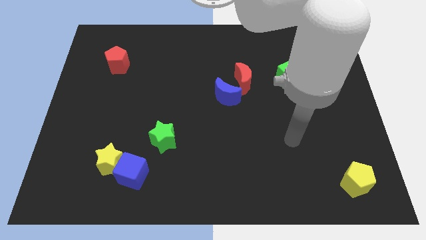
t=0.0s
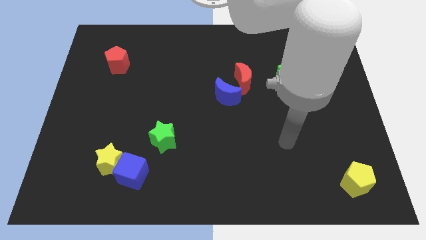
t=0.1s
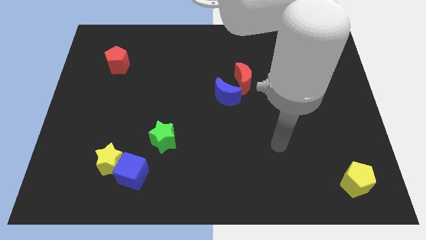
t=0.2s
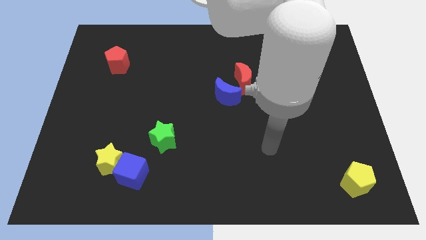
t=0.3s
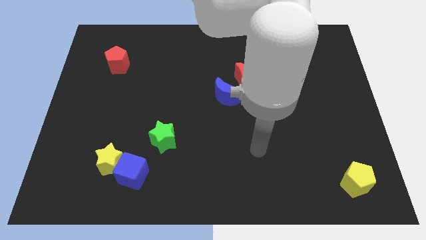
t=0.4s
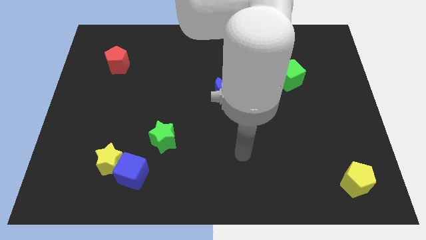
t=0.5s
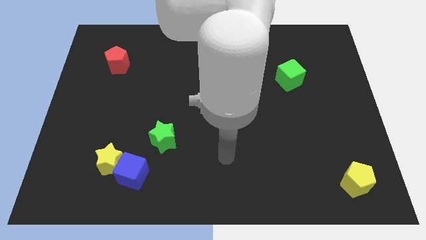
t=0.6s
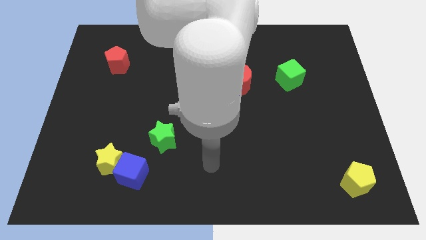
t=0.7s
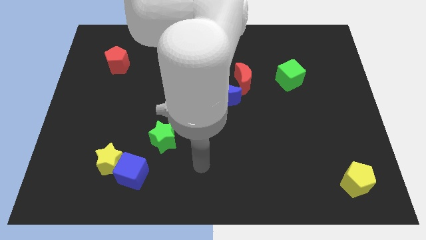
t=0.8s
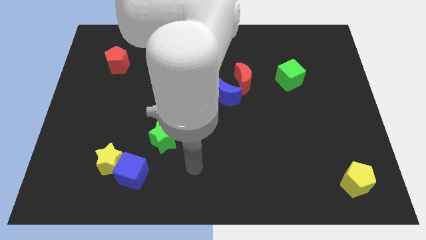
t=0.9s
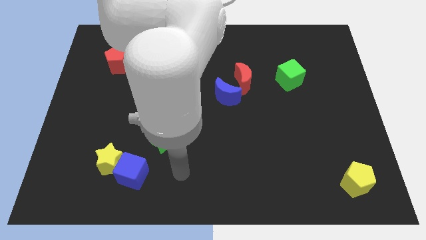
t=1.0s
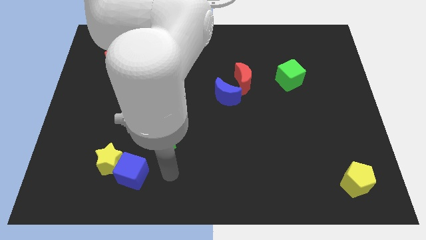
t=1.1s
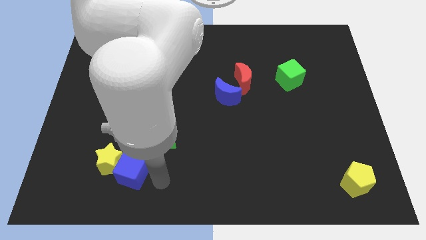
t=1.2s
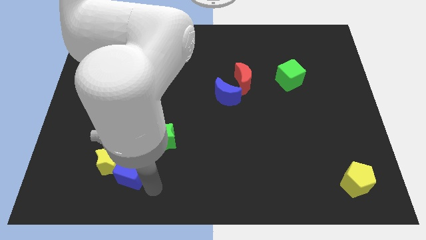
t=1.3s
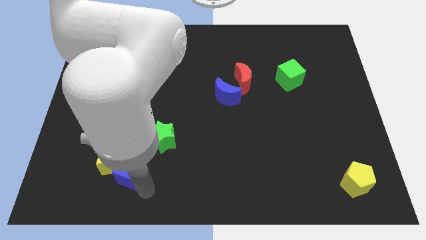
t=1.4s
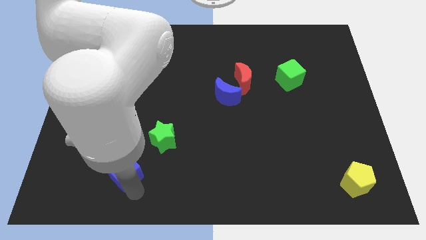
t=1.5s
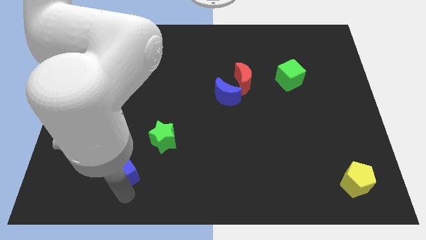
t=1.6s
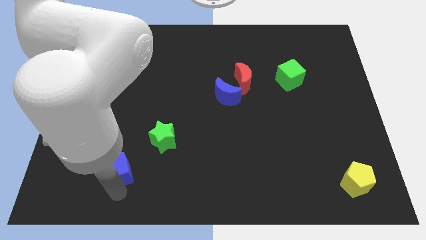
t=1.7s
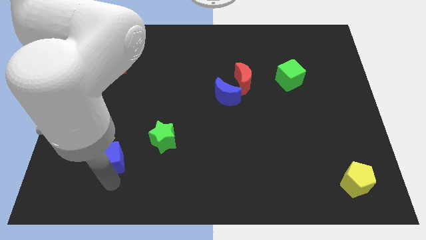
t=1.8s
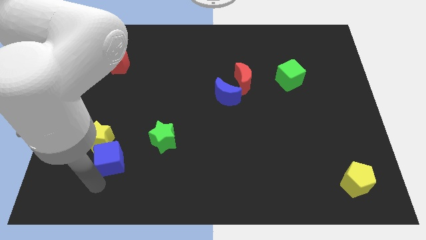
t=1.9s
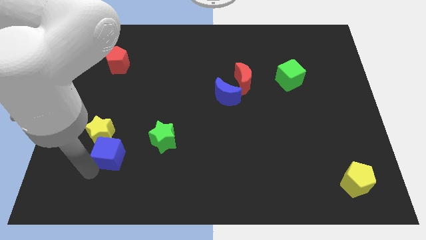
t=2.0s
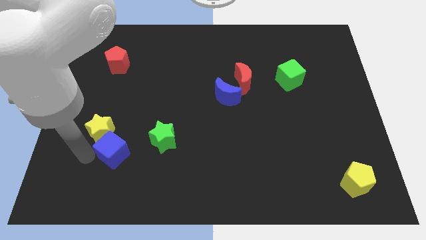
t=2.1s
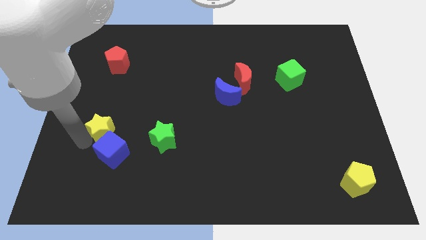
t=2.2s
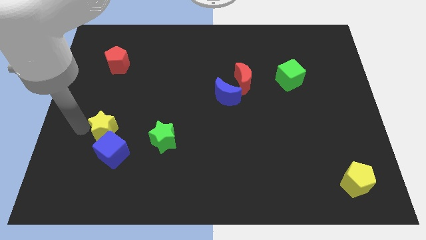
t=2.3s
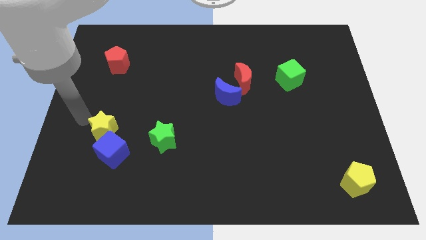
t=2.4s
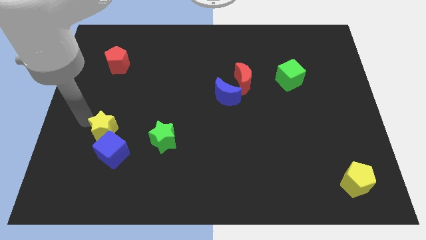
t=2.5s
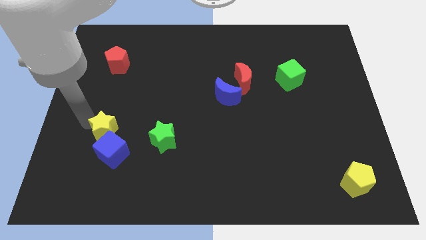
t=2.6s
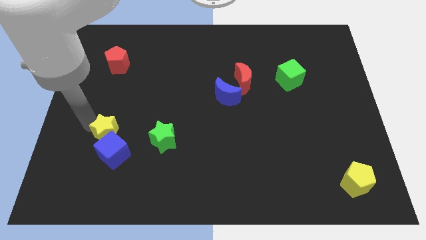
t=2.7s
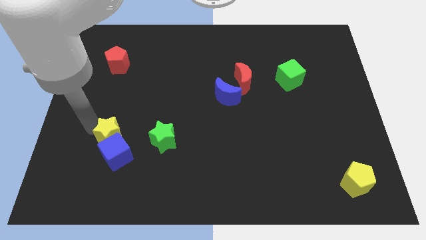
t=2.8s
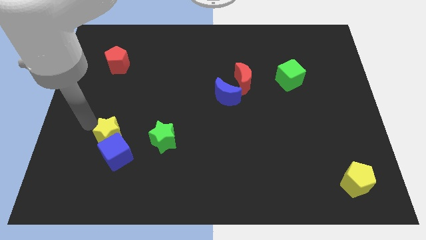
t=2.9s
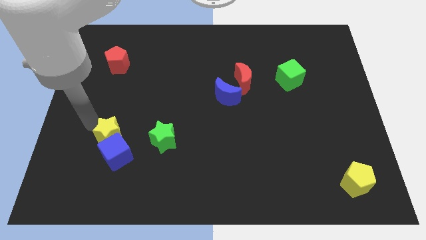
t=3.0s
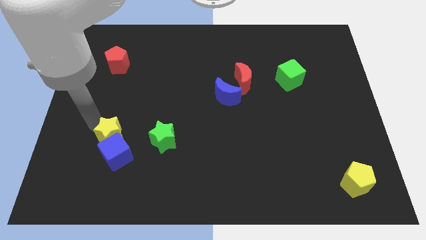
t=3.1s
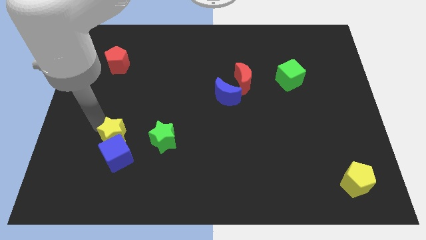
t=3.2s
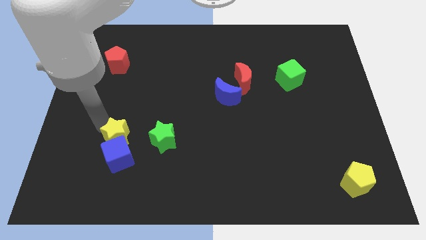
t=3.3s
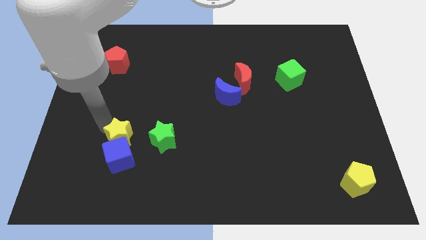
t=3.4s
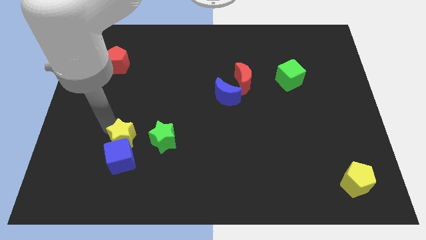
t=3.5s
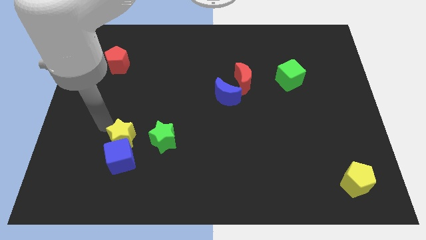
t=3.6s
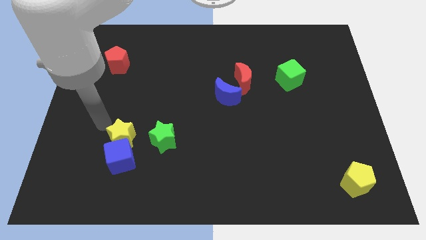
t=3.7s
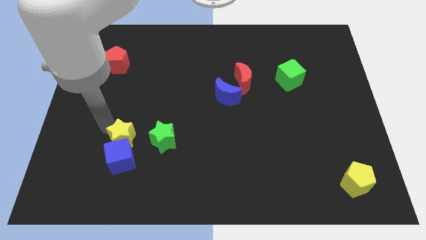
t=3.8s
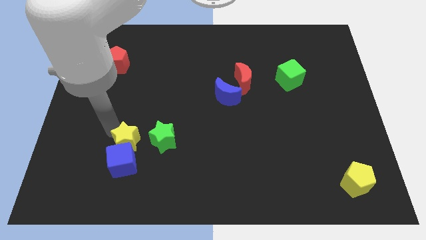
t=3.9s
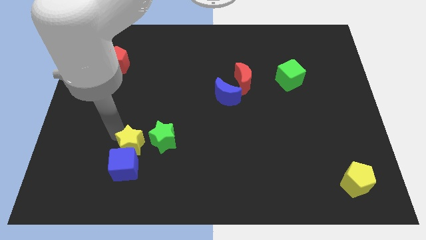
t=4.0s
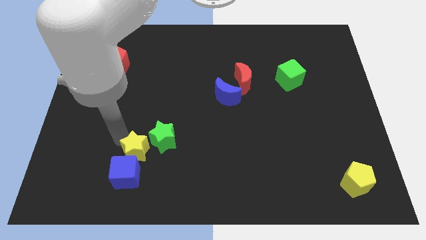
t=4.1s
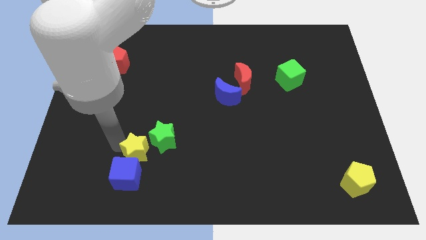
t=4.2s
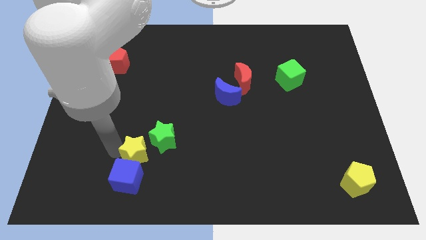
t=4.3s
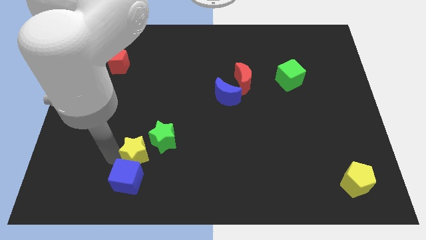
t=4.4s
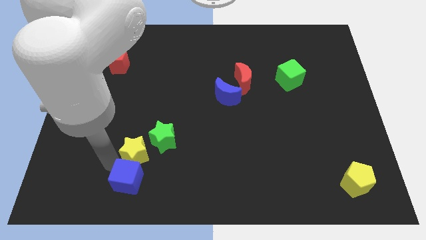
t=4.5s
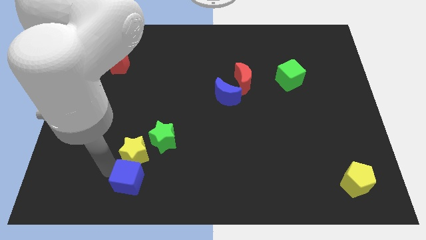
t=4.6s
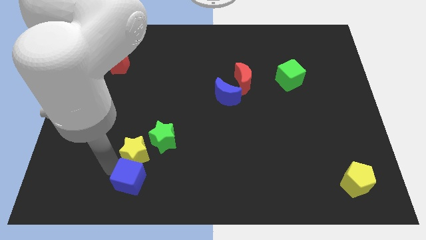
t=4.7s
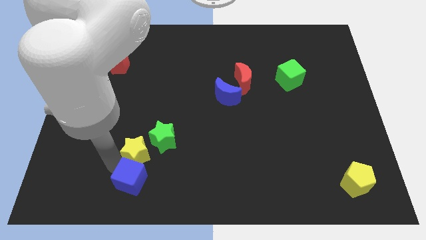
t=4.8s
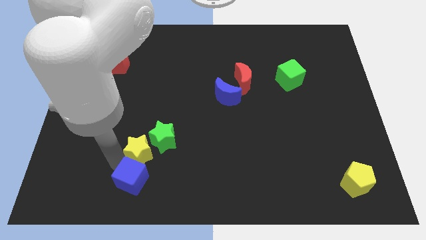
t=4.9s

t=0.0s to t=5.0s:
put the yellow star towards the green star

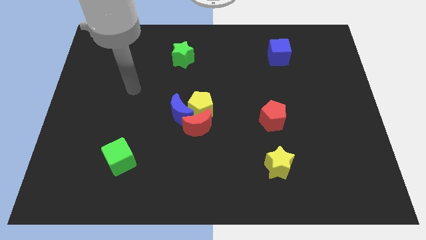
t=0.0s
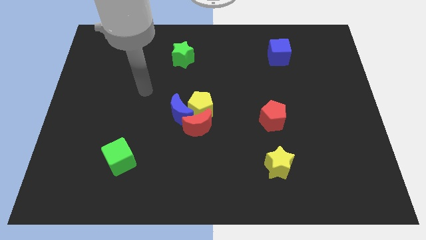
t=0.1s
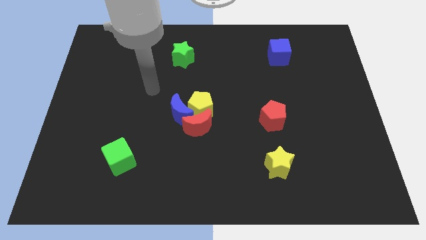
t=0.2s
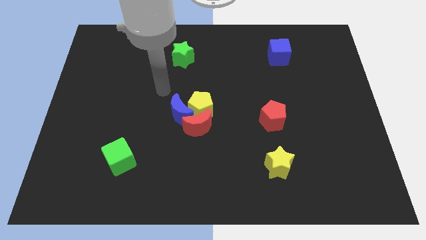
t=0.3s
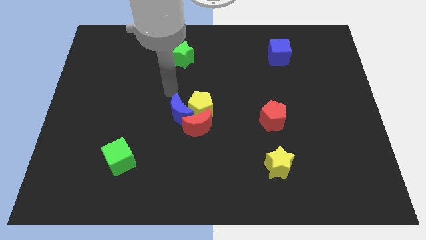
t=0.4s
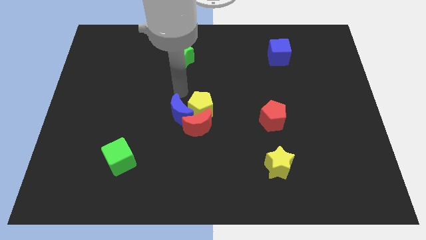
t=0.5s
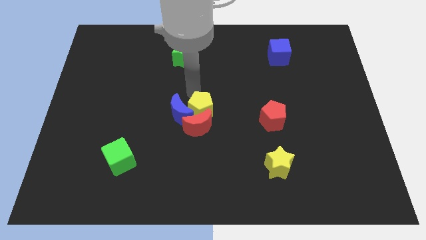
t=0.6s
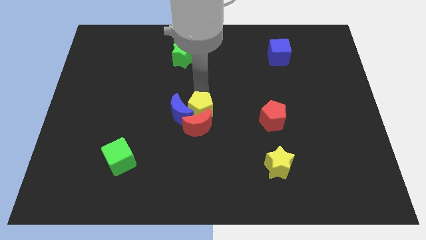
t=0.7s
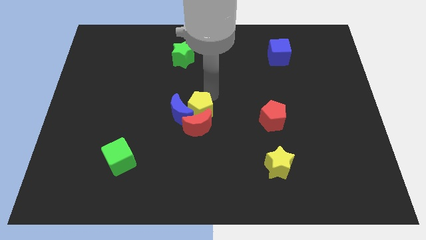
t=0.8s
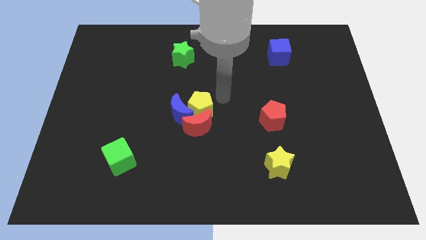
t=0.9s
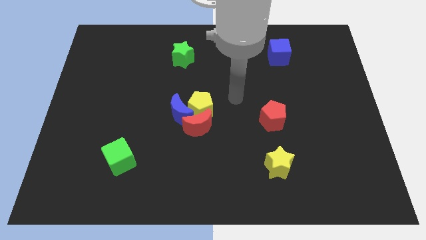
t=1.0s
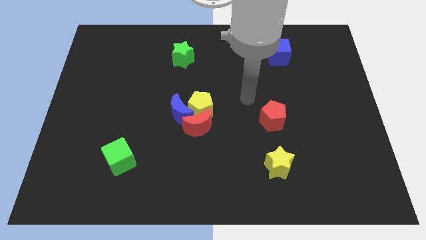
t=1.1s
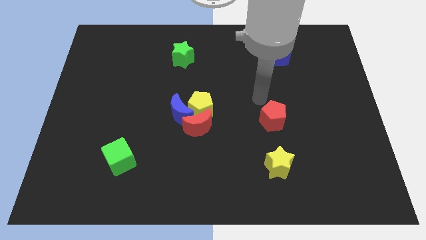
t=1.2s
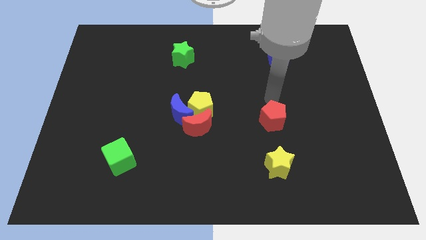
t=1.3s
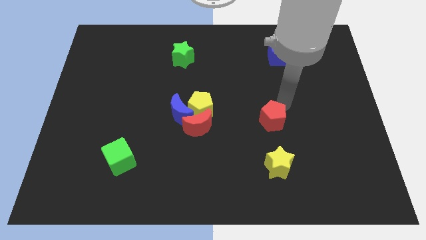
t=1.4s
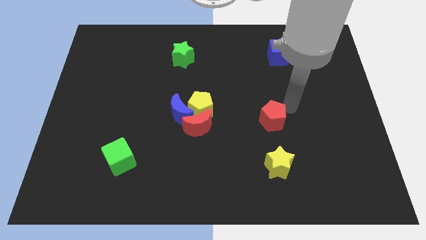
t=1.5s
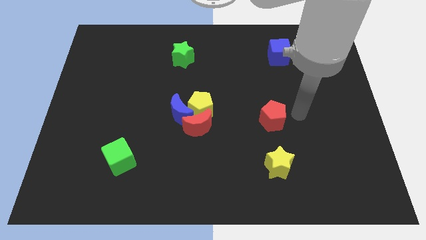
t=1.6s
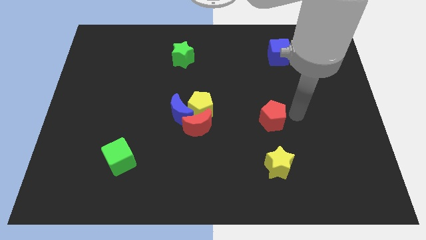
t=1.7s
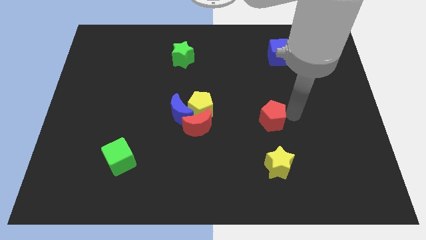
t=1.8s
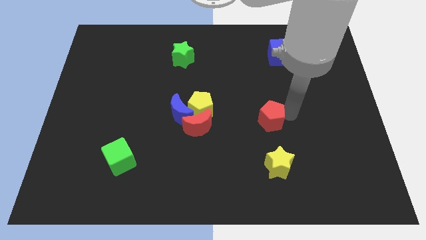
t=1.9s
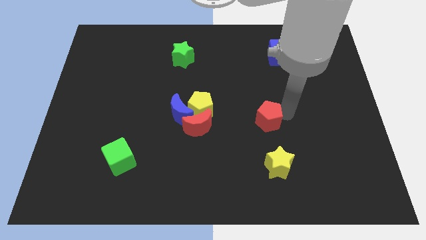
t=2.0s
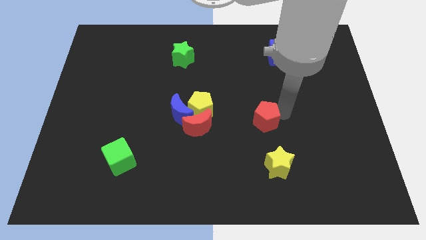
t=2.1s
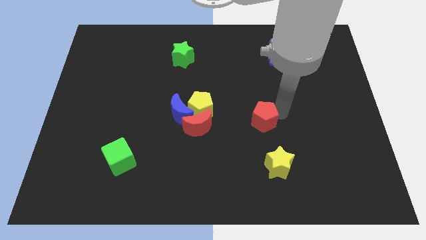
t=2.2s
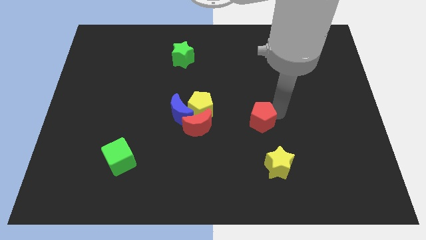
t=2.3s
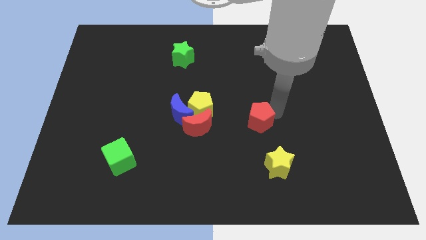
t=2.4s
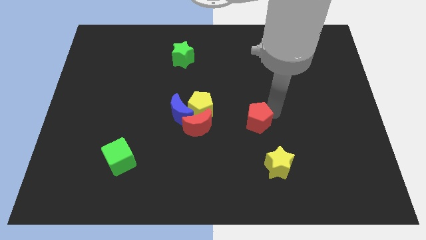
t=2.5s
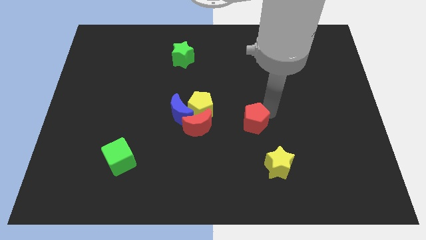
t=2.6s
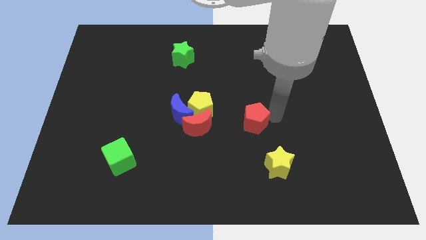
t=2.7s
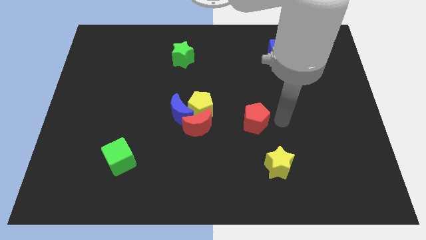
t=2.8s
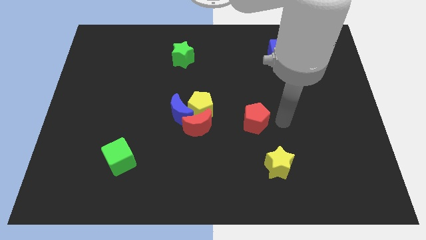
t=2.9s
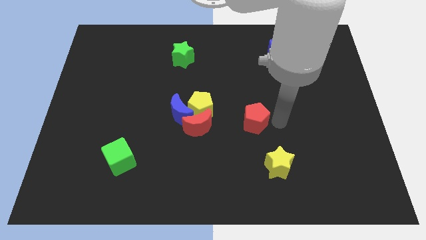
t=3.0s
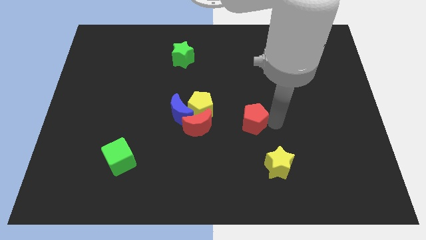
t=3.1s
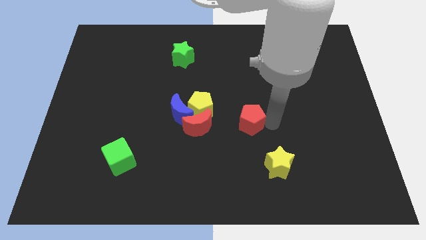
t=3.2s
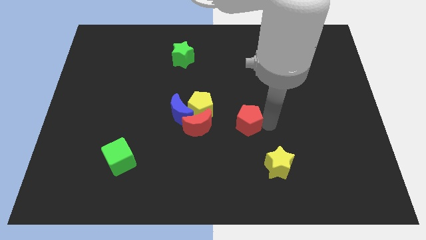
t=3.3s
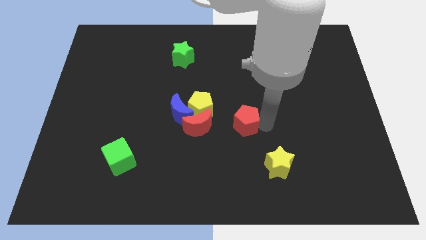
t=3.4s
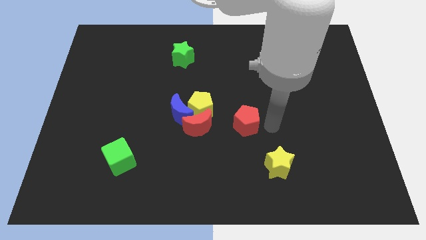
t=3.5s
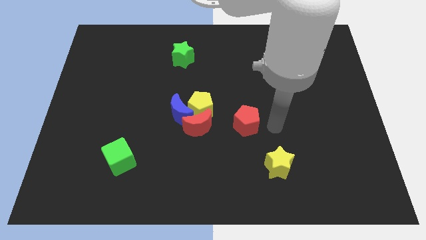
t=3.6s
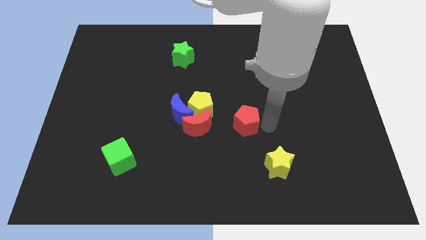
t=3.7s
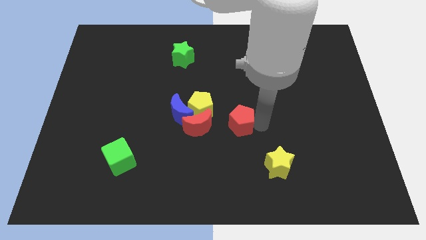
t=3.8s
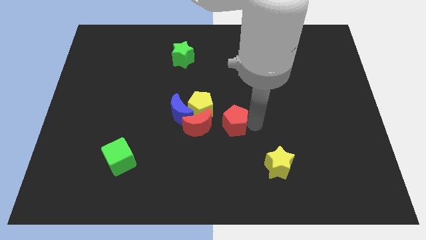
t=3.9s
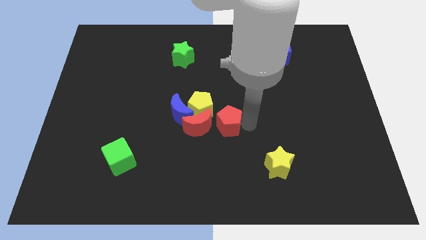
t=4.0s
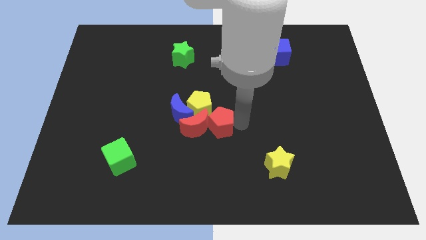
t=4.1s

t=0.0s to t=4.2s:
push the red pentagon towards the red moon
